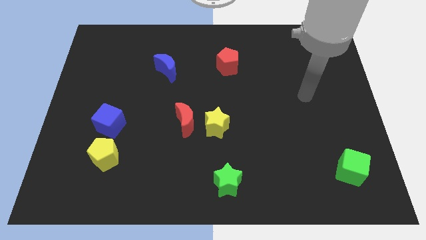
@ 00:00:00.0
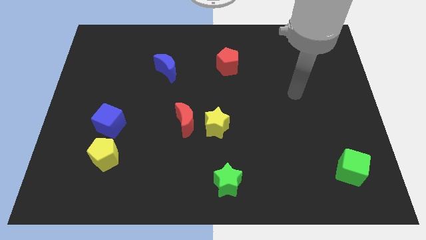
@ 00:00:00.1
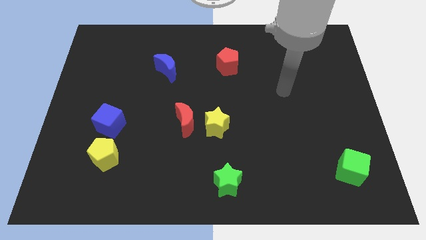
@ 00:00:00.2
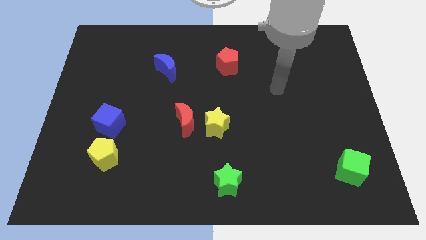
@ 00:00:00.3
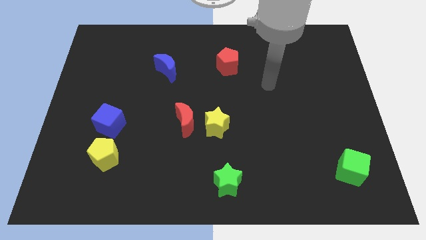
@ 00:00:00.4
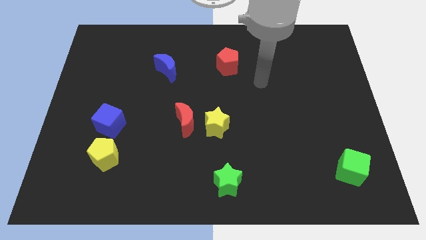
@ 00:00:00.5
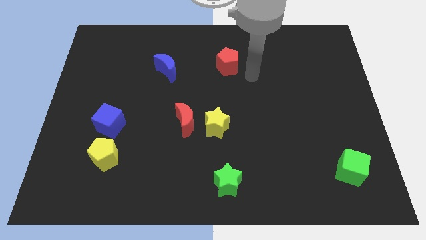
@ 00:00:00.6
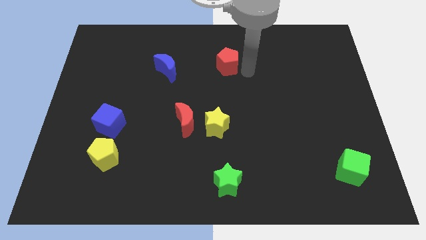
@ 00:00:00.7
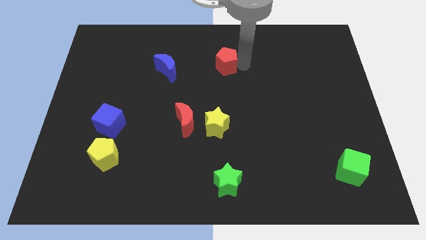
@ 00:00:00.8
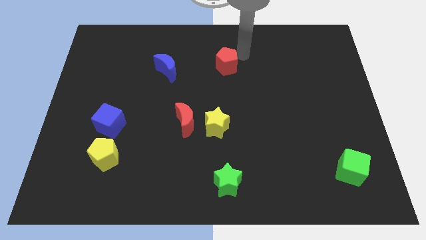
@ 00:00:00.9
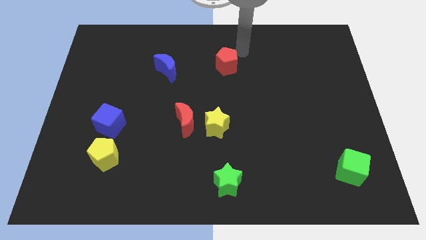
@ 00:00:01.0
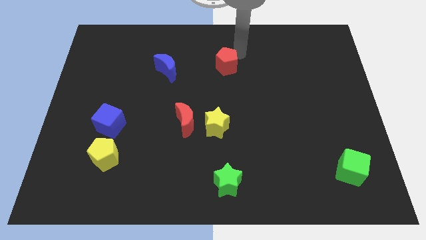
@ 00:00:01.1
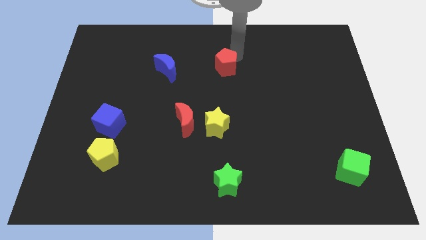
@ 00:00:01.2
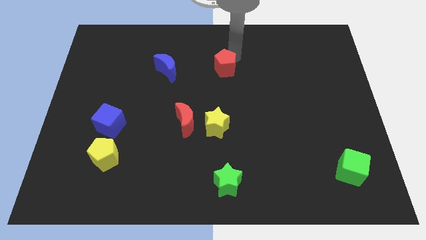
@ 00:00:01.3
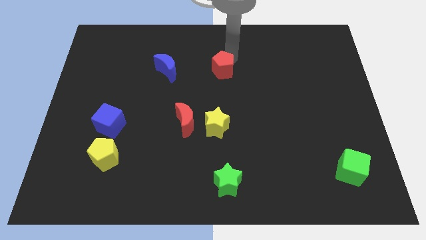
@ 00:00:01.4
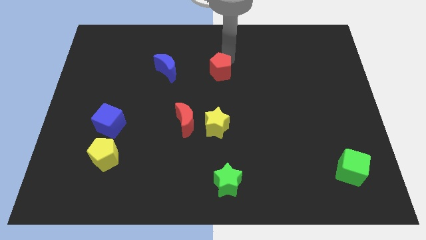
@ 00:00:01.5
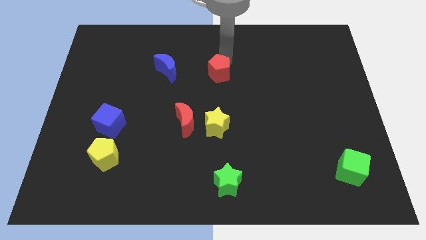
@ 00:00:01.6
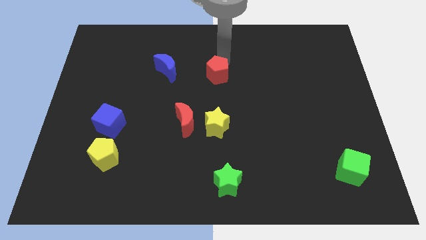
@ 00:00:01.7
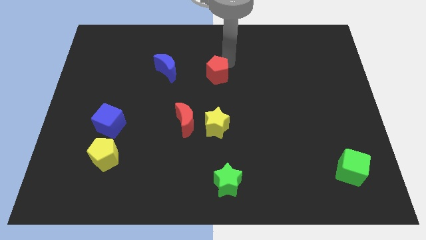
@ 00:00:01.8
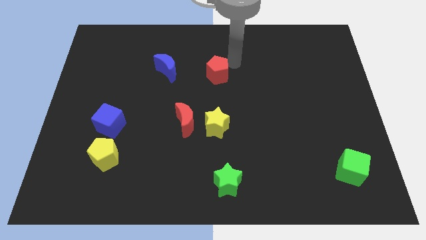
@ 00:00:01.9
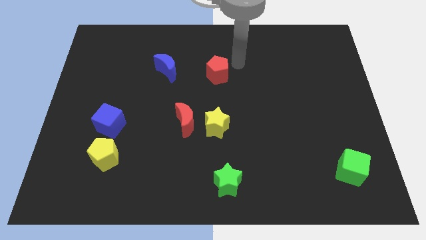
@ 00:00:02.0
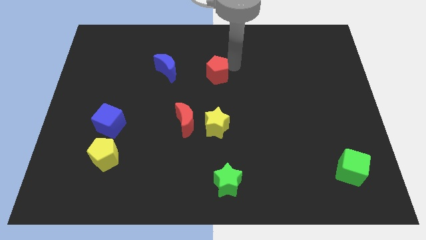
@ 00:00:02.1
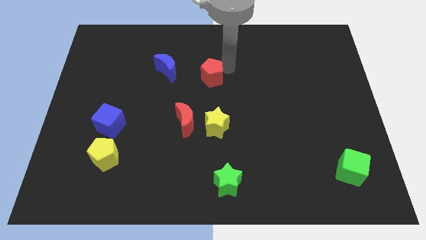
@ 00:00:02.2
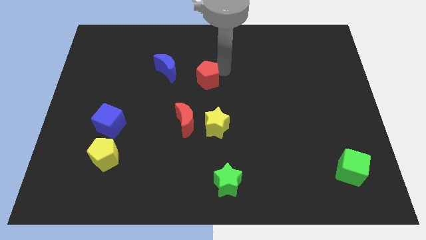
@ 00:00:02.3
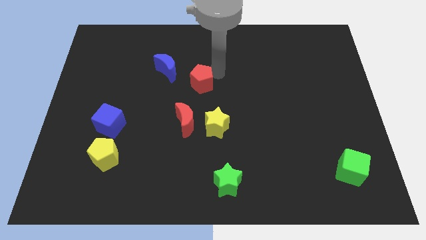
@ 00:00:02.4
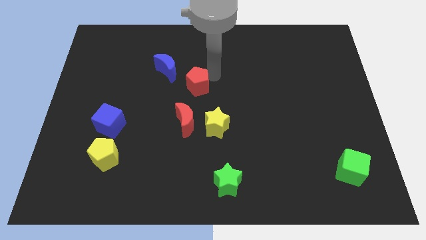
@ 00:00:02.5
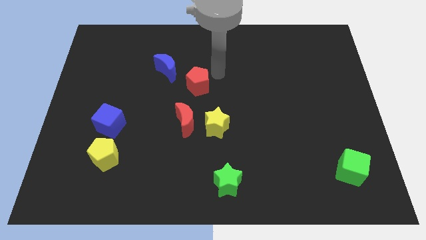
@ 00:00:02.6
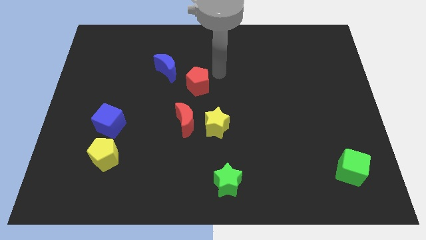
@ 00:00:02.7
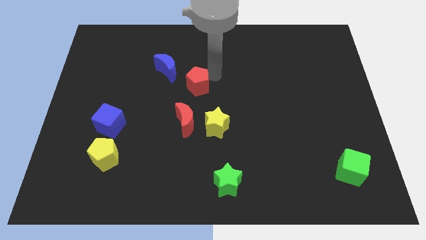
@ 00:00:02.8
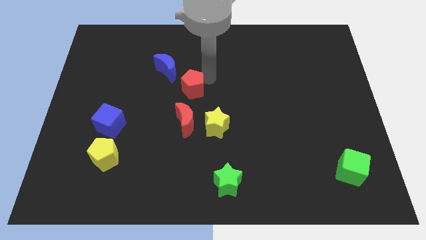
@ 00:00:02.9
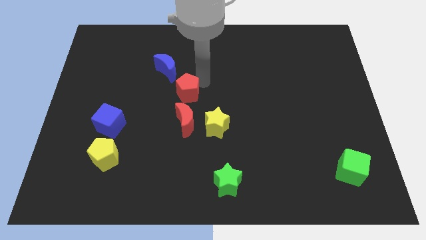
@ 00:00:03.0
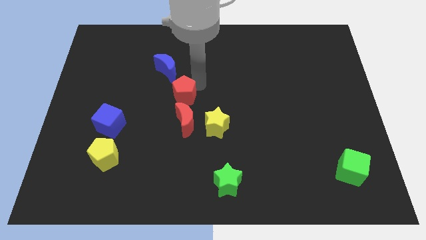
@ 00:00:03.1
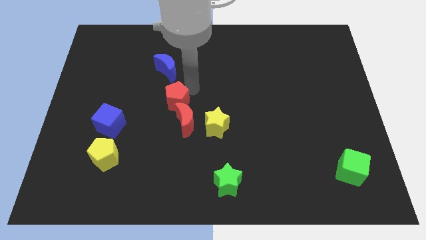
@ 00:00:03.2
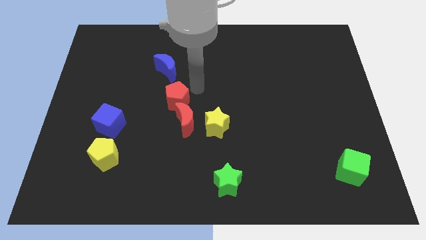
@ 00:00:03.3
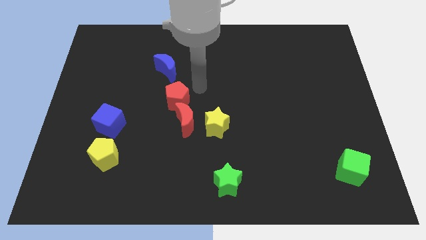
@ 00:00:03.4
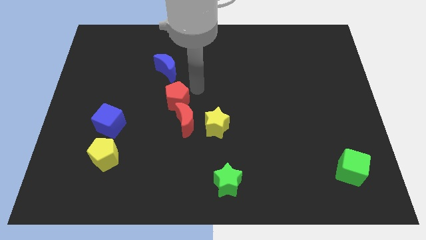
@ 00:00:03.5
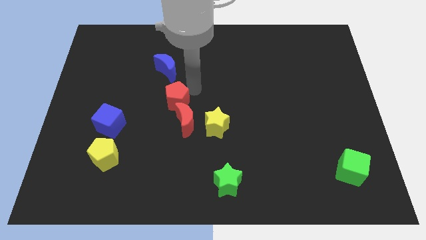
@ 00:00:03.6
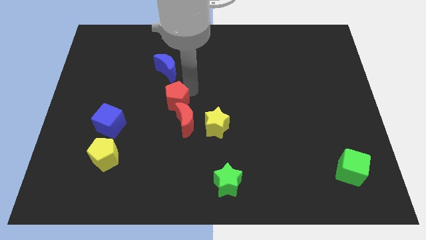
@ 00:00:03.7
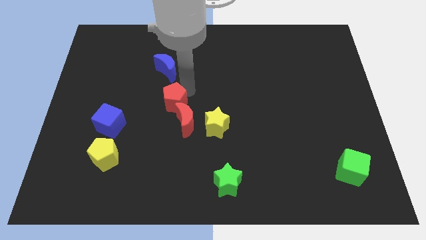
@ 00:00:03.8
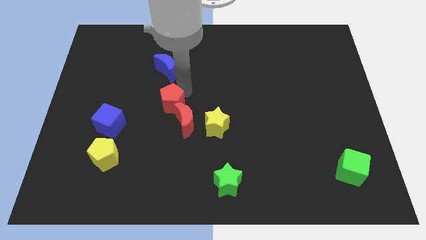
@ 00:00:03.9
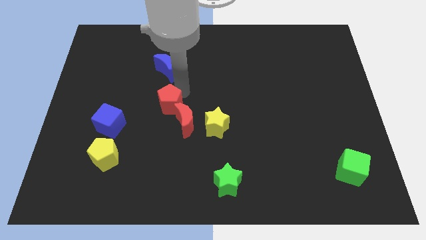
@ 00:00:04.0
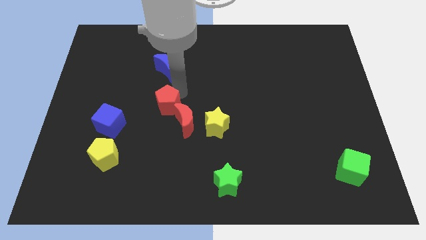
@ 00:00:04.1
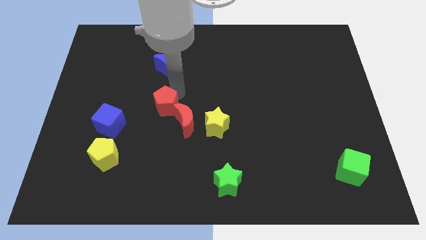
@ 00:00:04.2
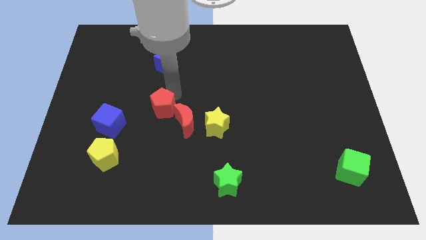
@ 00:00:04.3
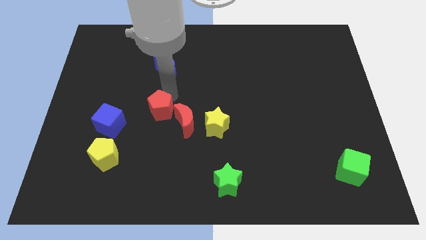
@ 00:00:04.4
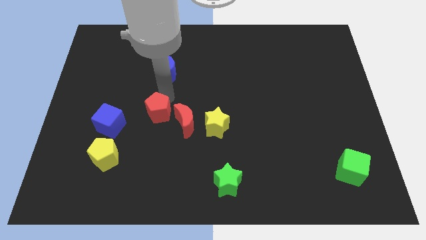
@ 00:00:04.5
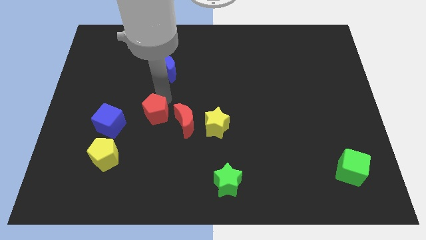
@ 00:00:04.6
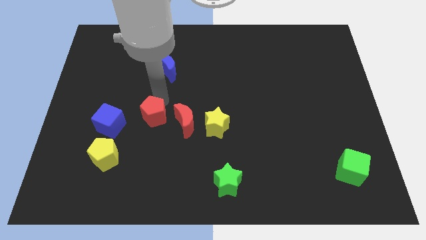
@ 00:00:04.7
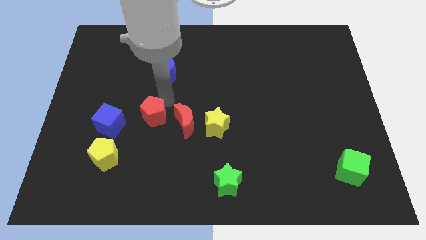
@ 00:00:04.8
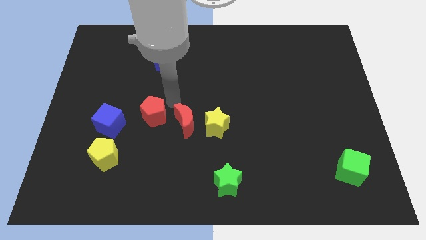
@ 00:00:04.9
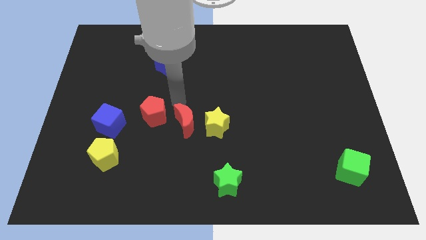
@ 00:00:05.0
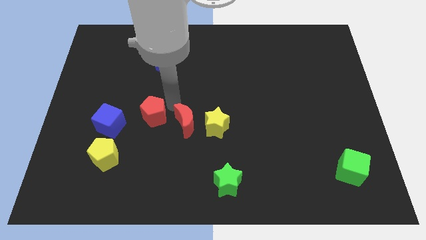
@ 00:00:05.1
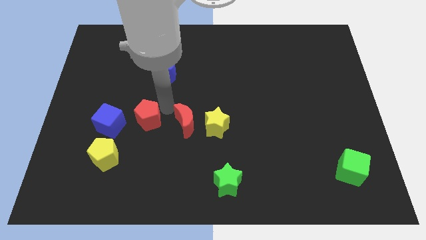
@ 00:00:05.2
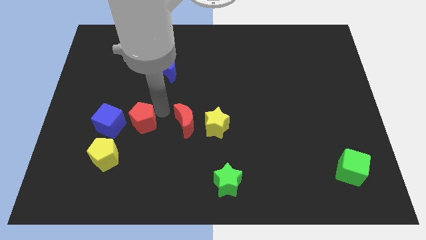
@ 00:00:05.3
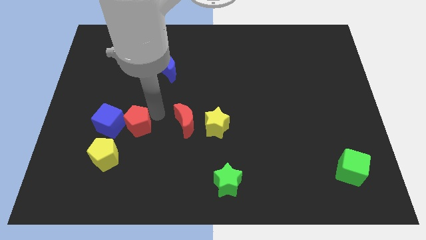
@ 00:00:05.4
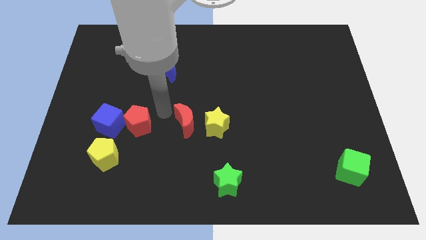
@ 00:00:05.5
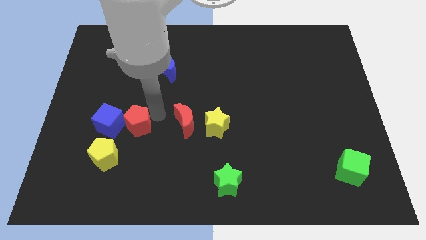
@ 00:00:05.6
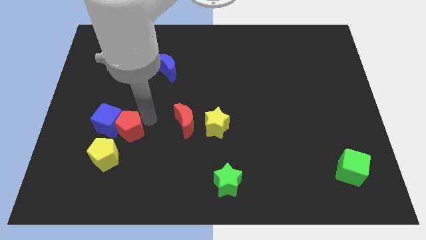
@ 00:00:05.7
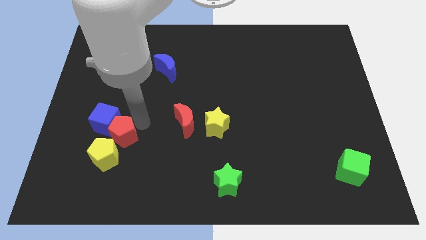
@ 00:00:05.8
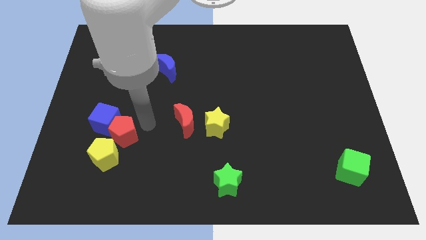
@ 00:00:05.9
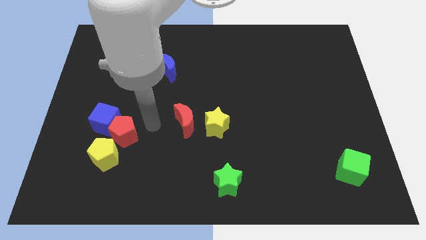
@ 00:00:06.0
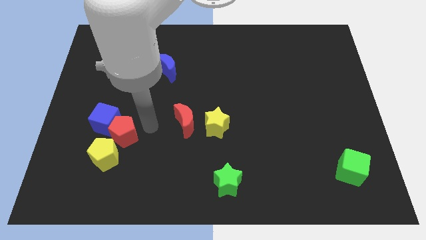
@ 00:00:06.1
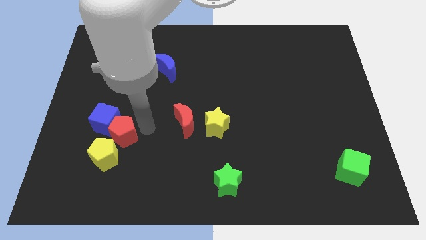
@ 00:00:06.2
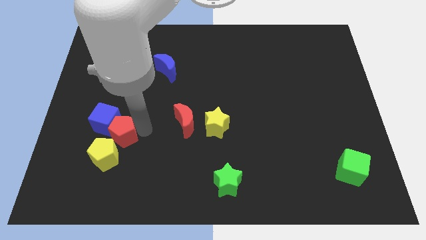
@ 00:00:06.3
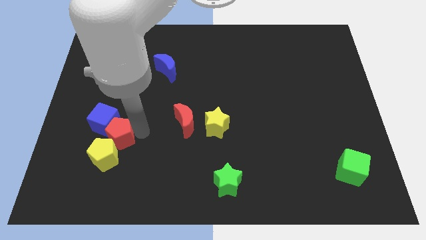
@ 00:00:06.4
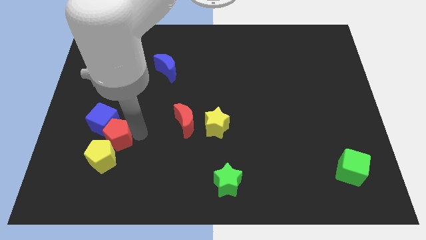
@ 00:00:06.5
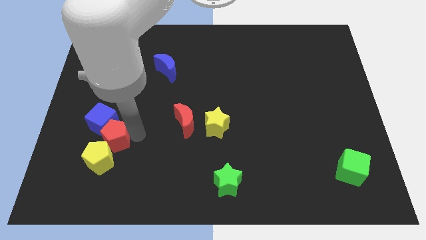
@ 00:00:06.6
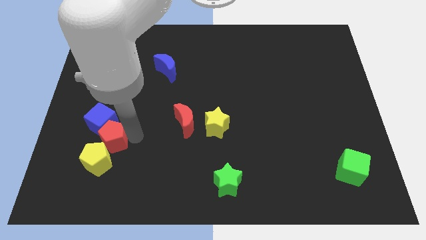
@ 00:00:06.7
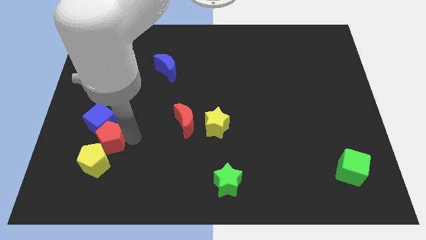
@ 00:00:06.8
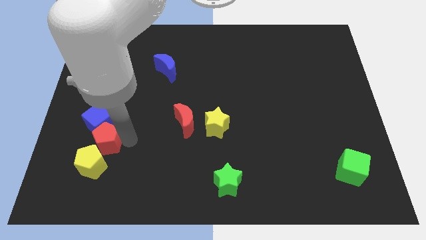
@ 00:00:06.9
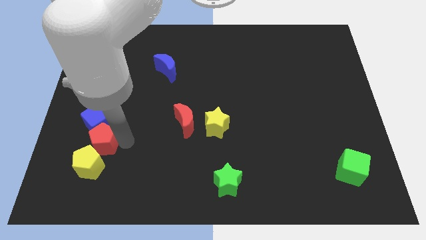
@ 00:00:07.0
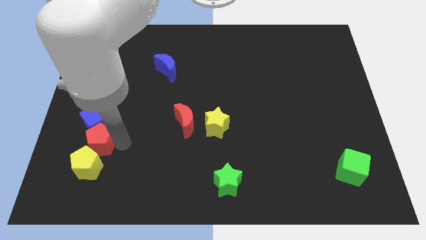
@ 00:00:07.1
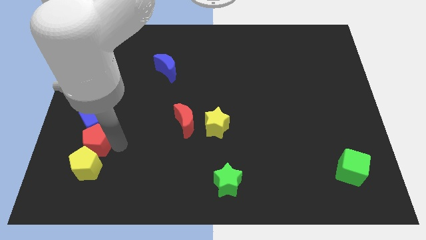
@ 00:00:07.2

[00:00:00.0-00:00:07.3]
put the red pentagon to the top left of the yellow pentagon
